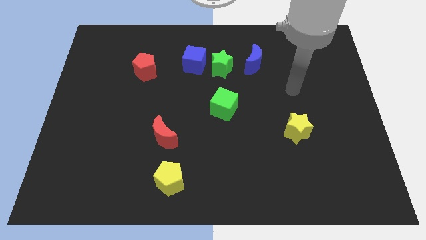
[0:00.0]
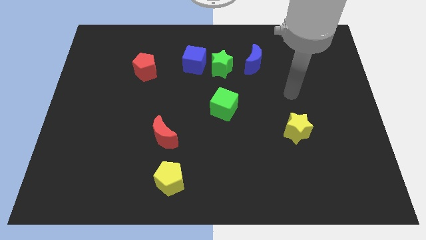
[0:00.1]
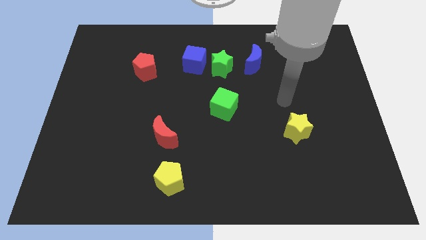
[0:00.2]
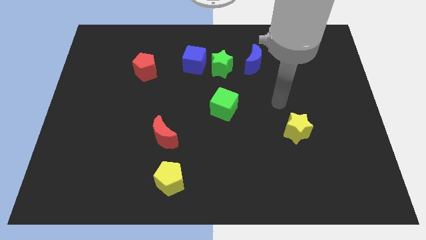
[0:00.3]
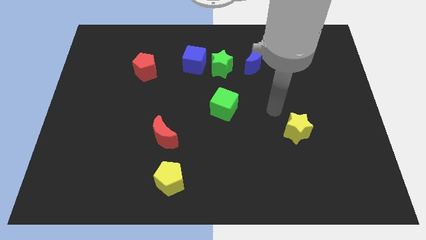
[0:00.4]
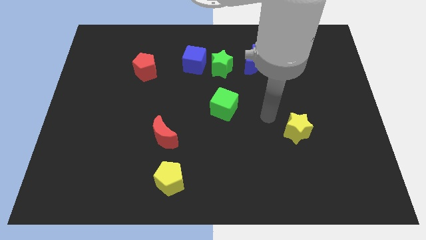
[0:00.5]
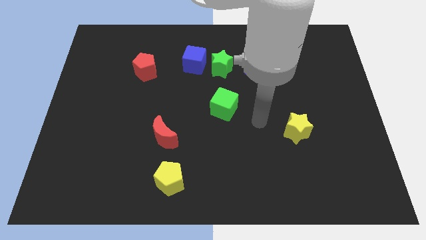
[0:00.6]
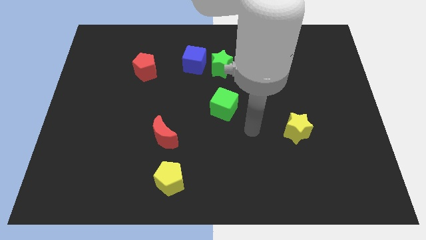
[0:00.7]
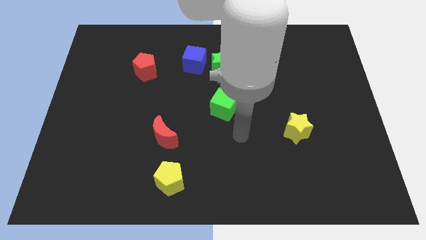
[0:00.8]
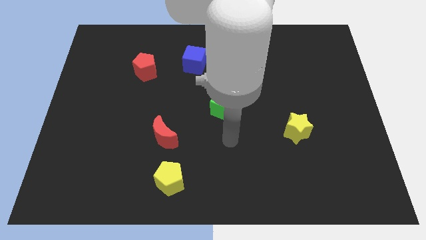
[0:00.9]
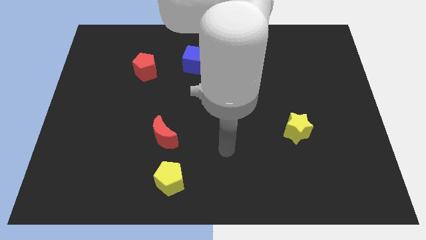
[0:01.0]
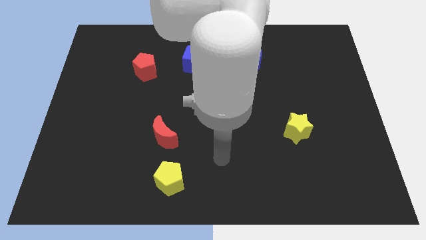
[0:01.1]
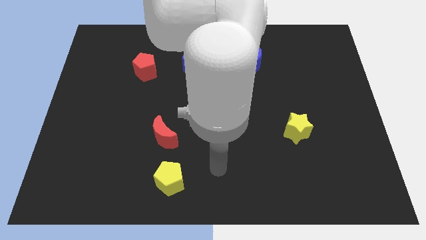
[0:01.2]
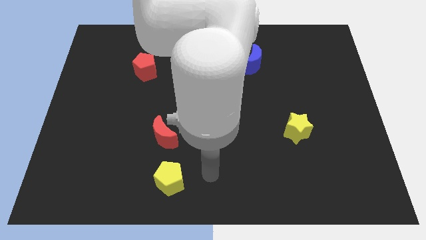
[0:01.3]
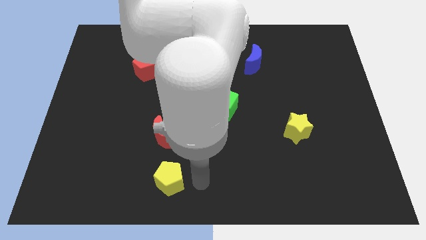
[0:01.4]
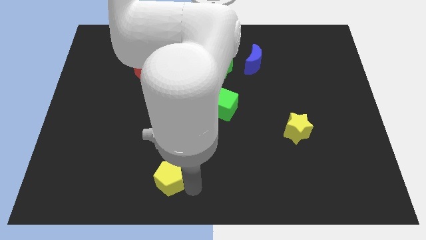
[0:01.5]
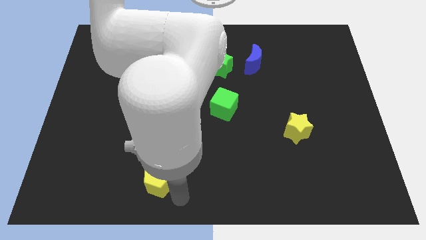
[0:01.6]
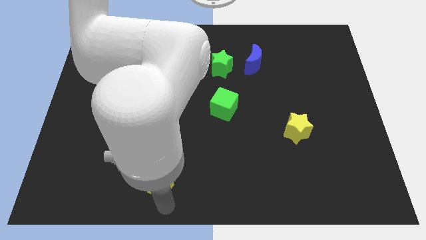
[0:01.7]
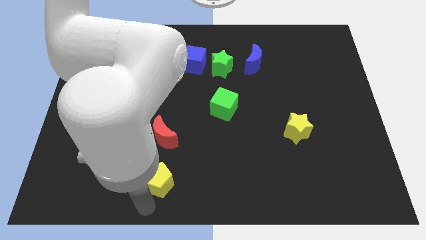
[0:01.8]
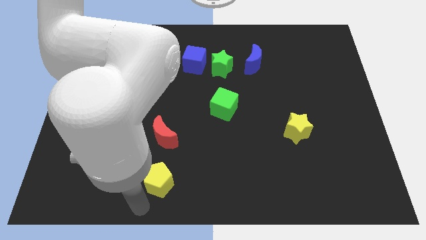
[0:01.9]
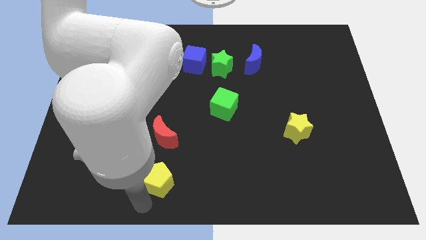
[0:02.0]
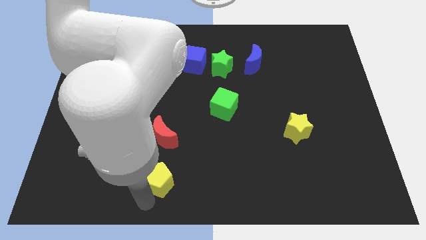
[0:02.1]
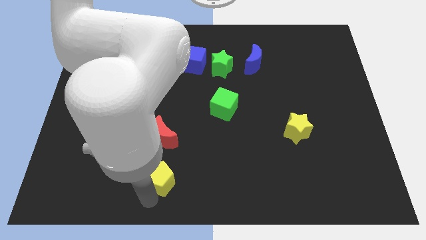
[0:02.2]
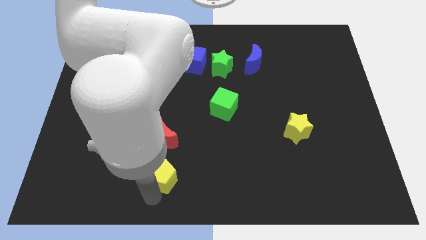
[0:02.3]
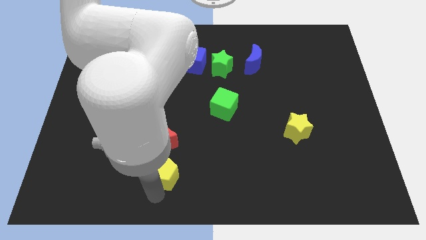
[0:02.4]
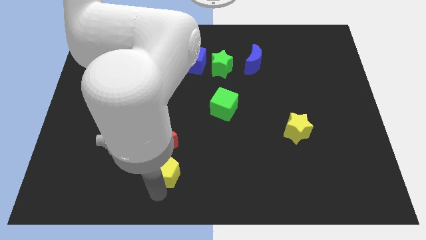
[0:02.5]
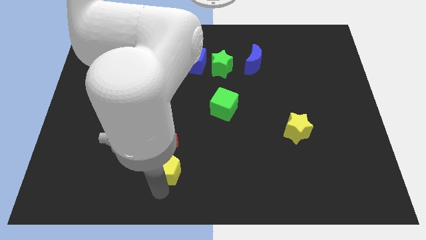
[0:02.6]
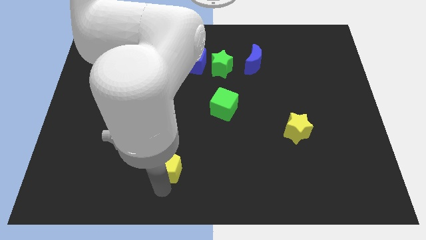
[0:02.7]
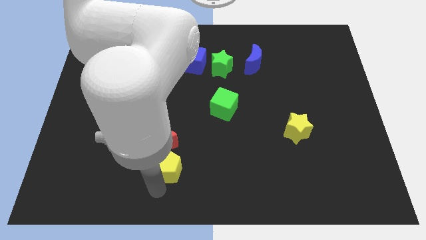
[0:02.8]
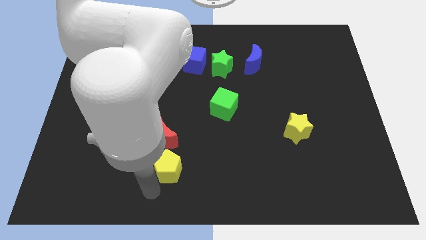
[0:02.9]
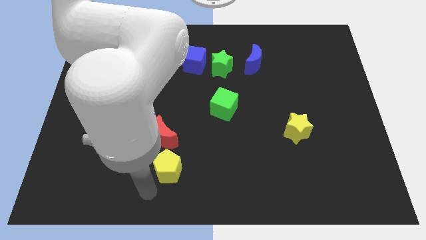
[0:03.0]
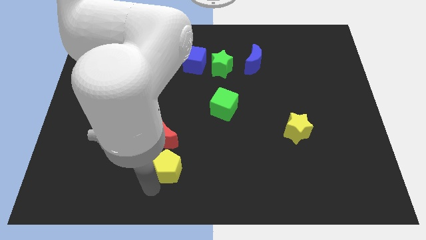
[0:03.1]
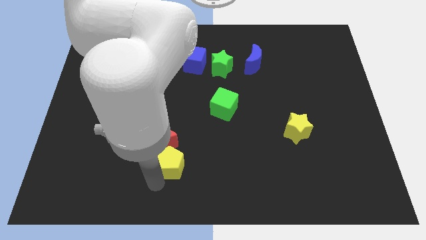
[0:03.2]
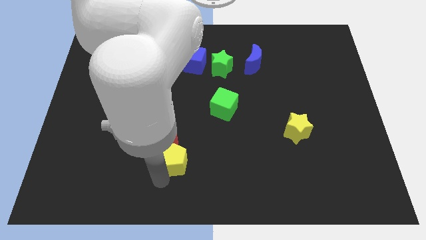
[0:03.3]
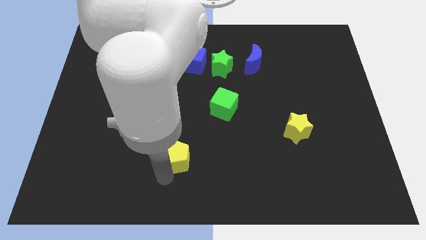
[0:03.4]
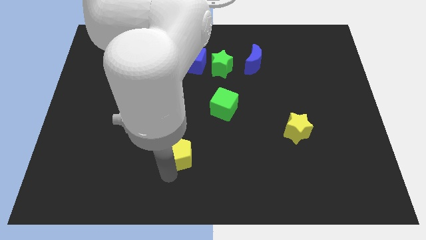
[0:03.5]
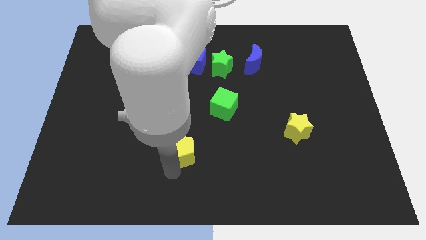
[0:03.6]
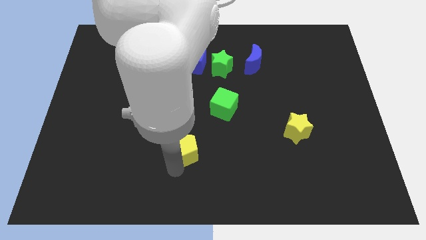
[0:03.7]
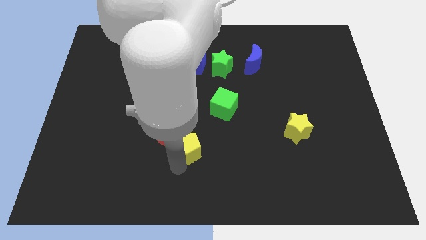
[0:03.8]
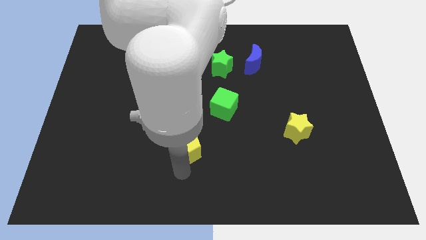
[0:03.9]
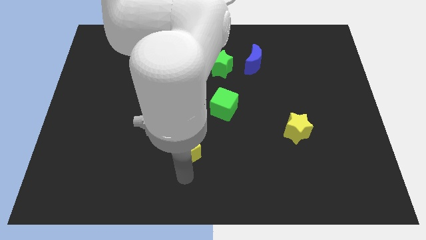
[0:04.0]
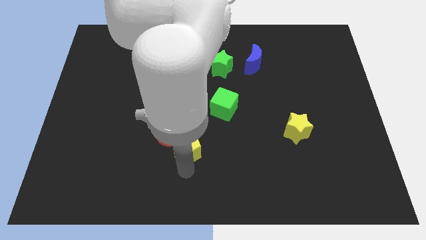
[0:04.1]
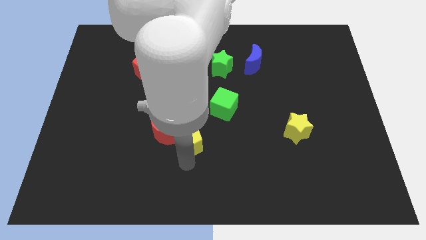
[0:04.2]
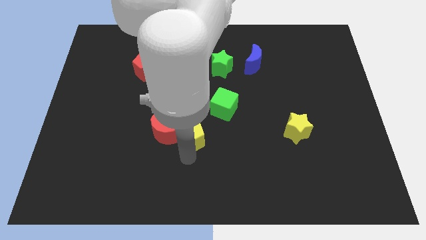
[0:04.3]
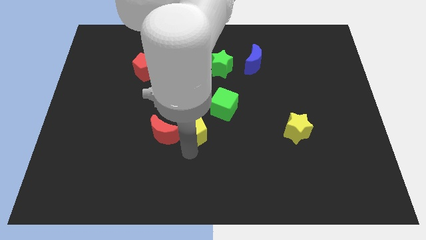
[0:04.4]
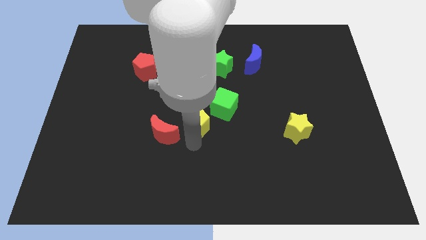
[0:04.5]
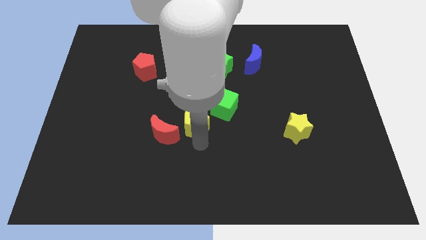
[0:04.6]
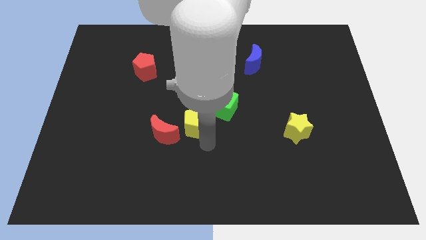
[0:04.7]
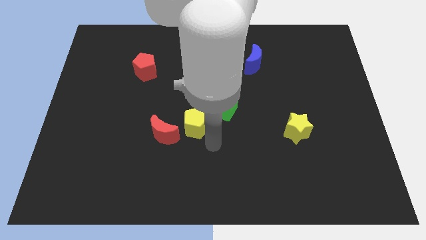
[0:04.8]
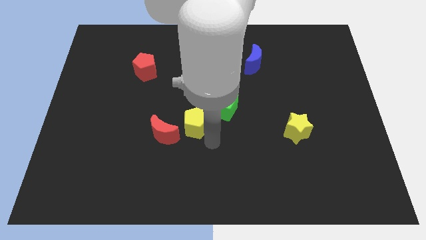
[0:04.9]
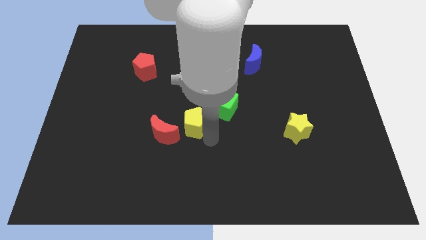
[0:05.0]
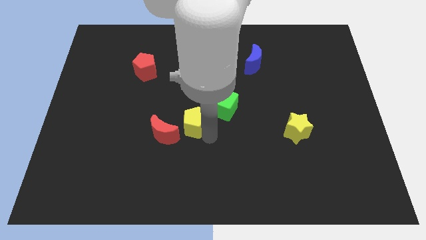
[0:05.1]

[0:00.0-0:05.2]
move the yellow pentagon left of the green cube

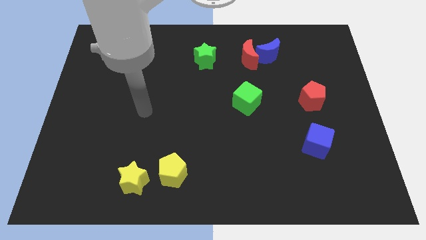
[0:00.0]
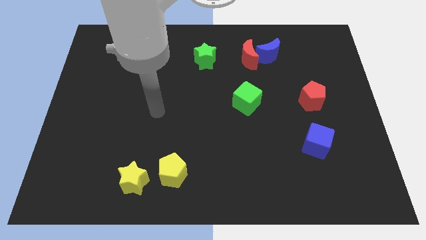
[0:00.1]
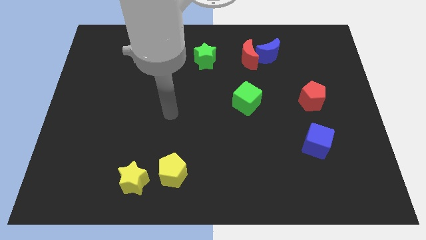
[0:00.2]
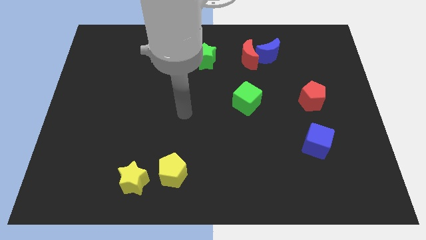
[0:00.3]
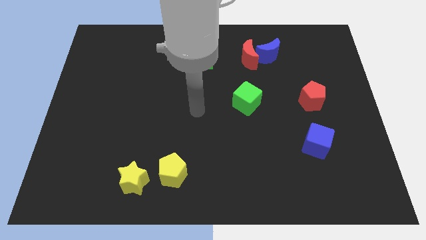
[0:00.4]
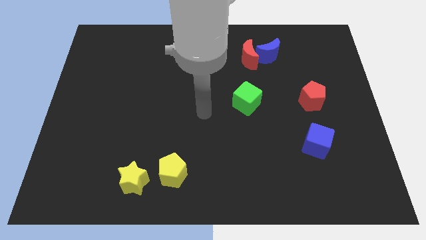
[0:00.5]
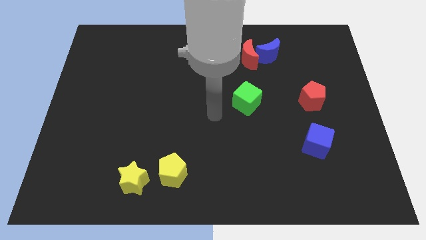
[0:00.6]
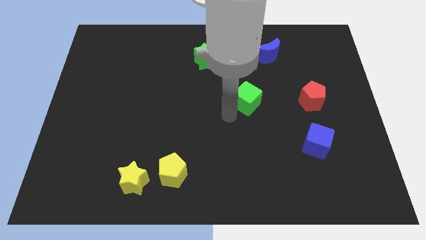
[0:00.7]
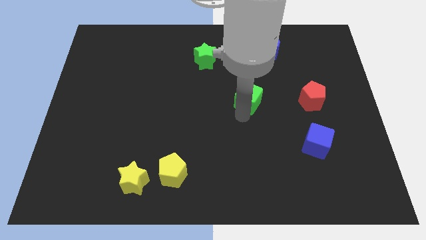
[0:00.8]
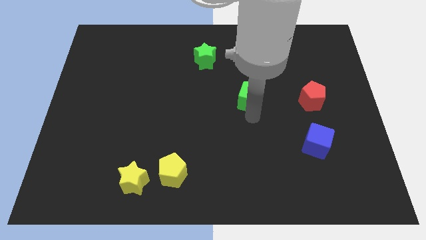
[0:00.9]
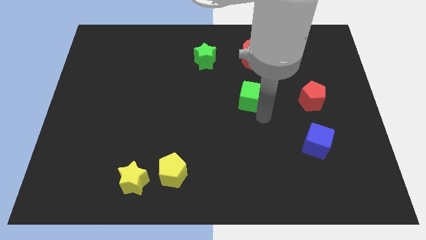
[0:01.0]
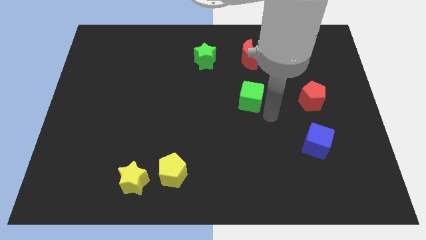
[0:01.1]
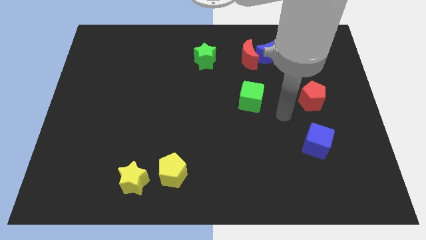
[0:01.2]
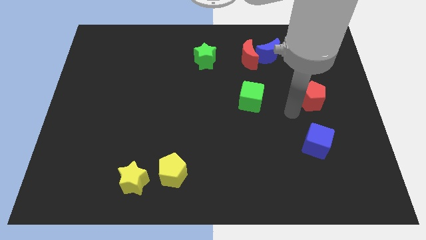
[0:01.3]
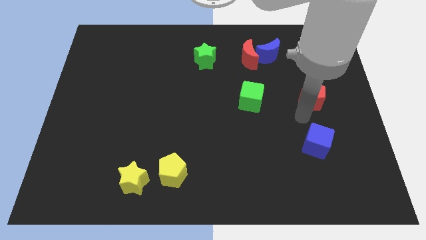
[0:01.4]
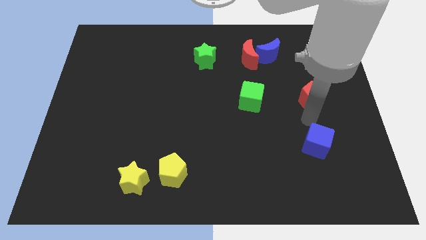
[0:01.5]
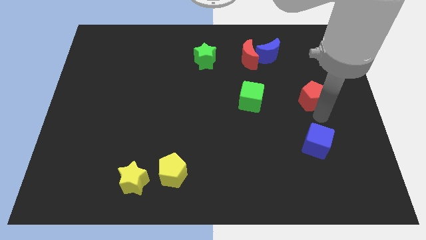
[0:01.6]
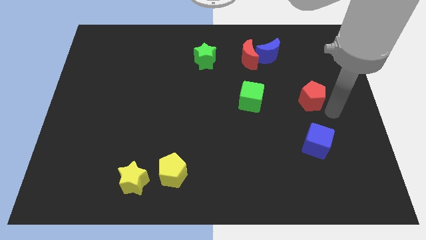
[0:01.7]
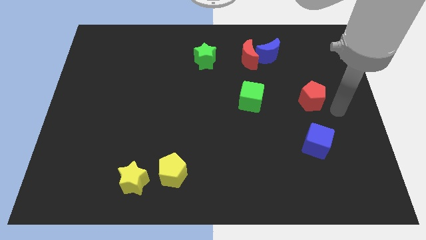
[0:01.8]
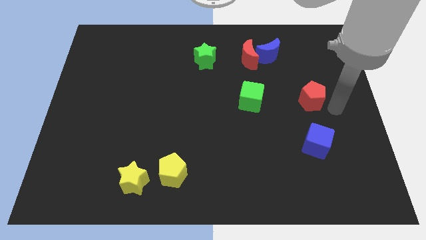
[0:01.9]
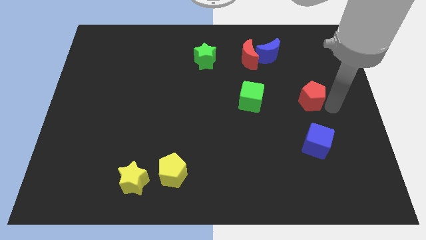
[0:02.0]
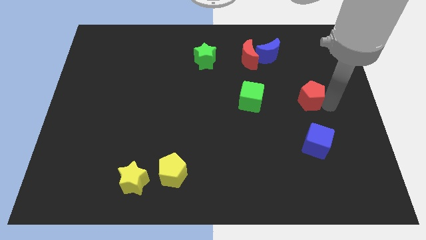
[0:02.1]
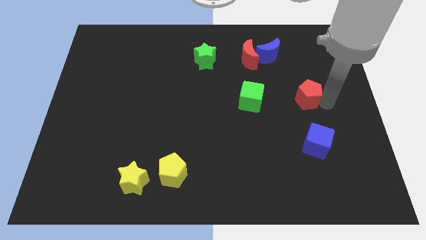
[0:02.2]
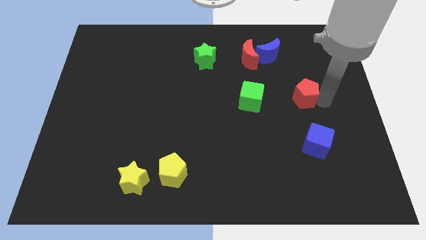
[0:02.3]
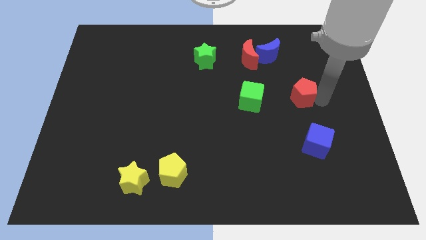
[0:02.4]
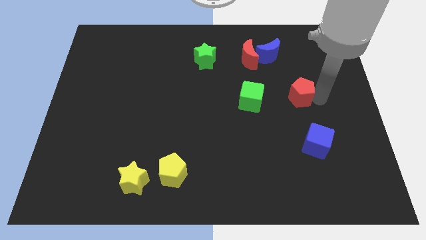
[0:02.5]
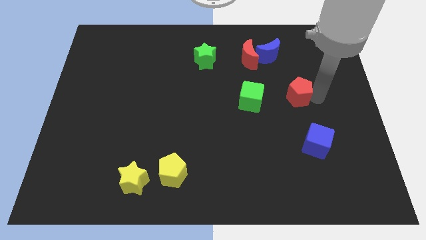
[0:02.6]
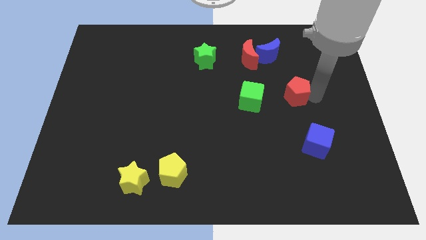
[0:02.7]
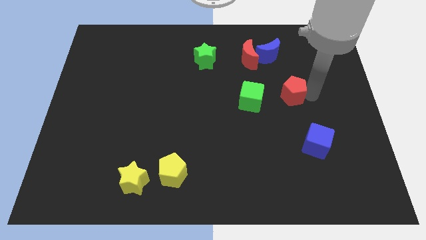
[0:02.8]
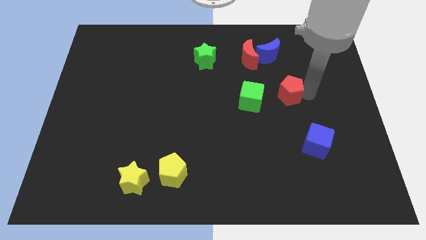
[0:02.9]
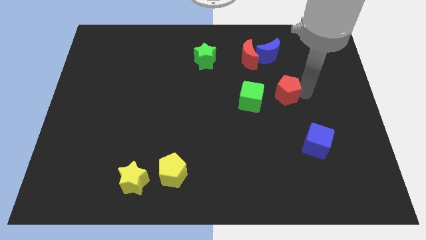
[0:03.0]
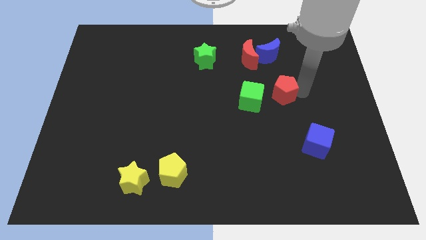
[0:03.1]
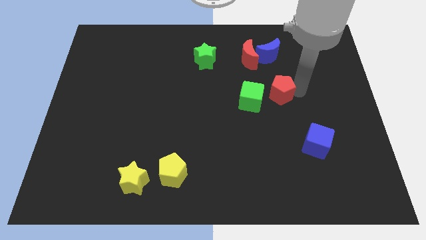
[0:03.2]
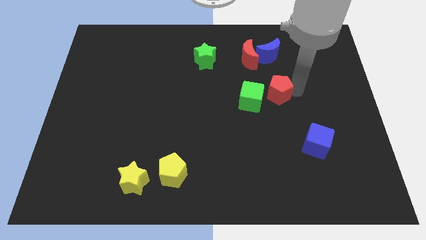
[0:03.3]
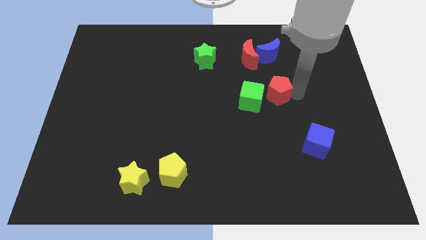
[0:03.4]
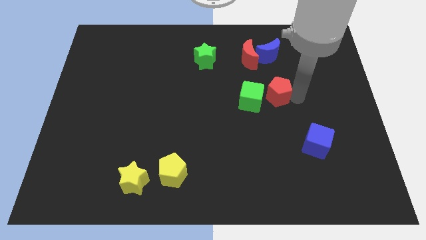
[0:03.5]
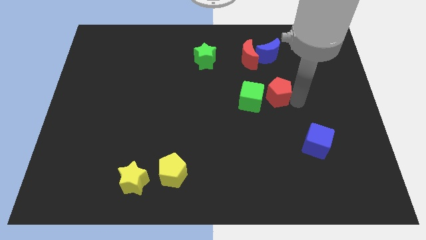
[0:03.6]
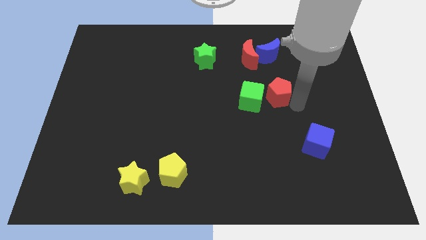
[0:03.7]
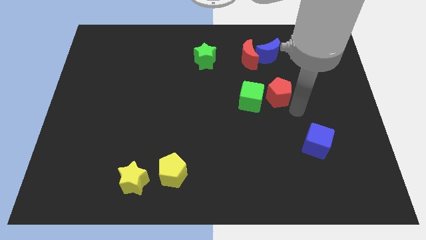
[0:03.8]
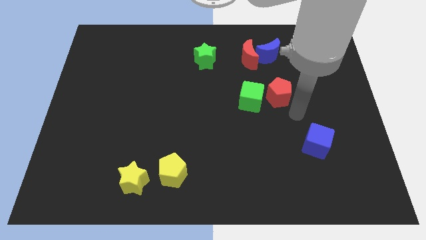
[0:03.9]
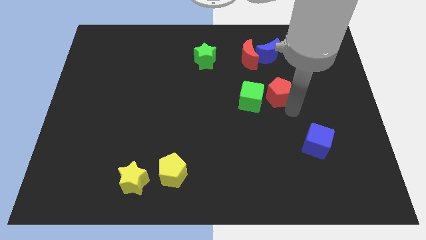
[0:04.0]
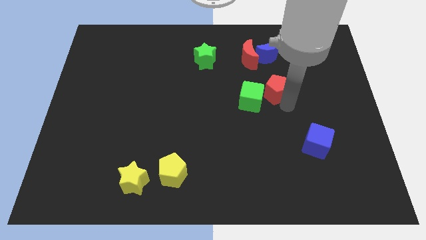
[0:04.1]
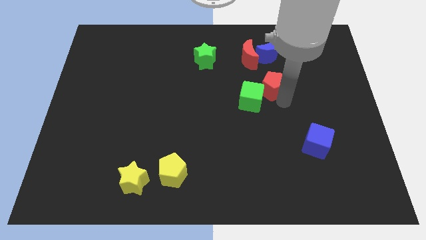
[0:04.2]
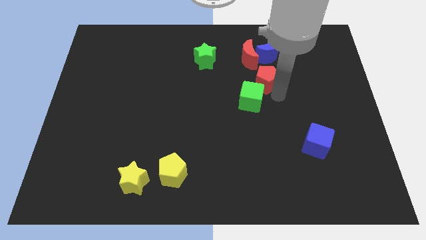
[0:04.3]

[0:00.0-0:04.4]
slide the red pentagon to the top of the green cube
